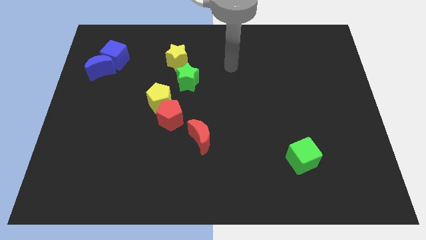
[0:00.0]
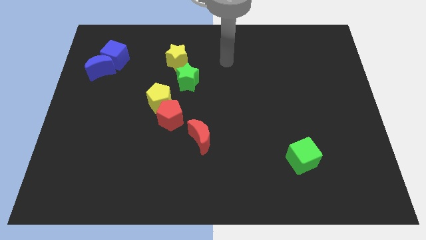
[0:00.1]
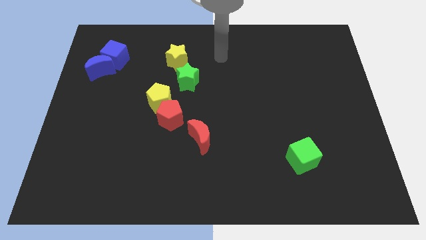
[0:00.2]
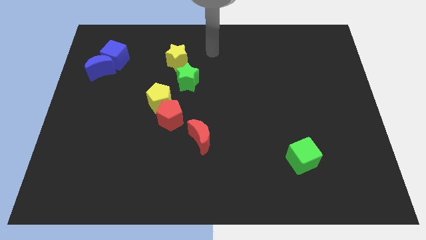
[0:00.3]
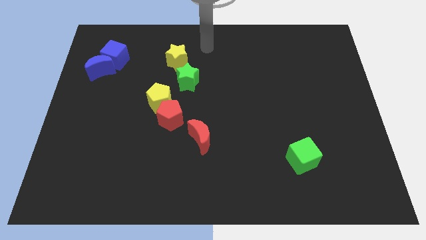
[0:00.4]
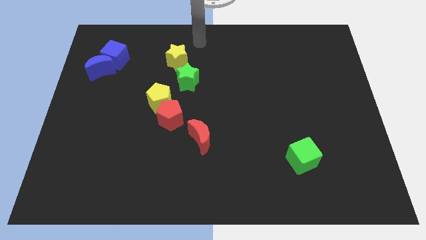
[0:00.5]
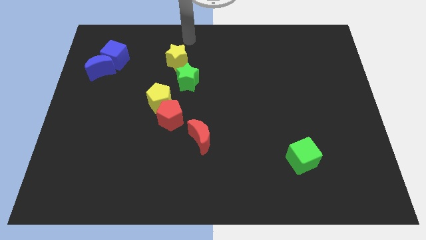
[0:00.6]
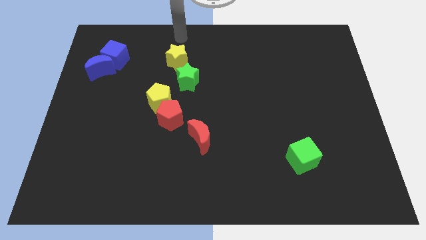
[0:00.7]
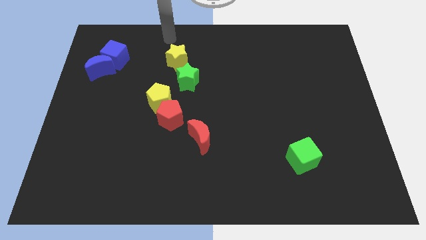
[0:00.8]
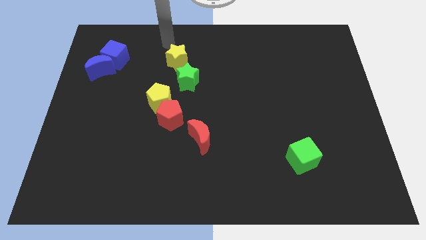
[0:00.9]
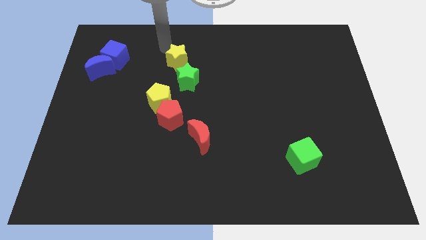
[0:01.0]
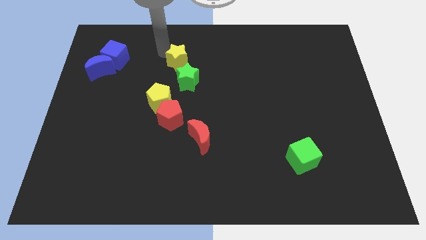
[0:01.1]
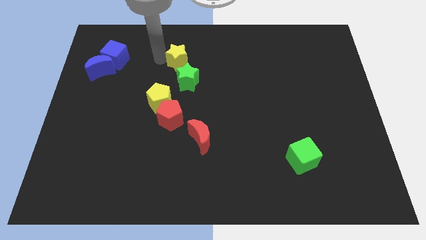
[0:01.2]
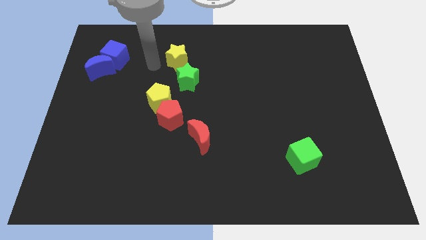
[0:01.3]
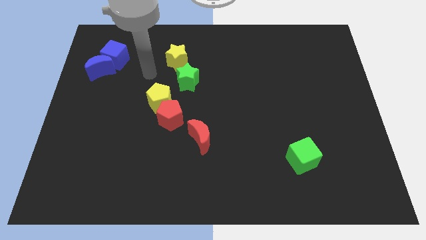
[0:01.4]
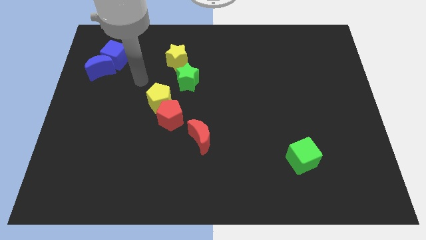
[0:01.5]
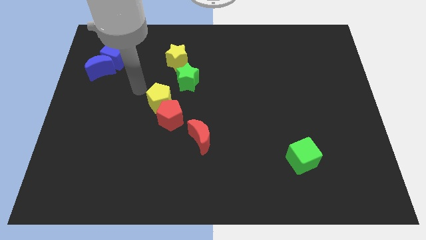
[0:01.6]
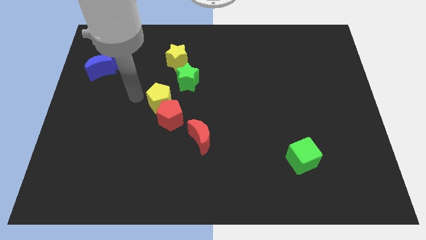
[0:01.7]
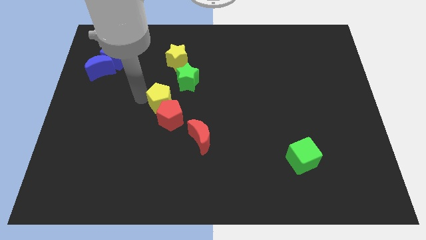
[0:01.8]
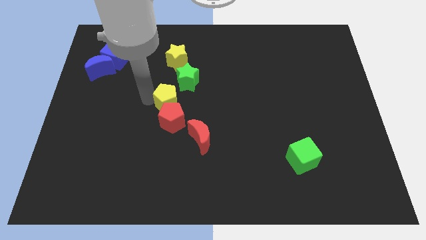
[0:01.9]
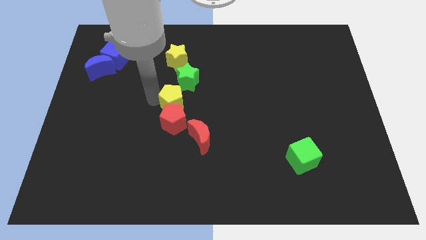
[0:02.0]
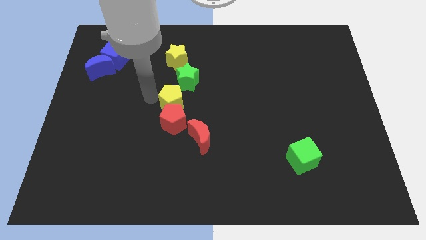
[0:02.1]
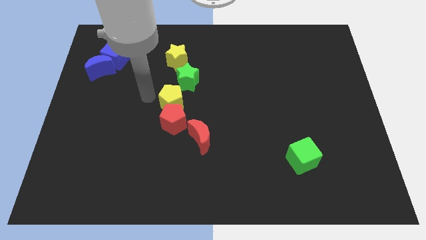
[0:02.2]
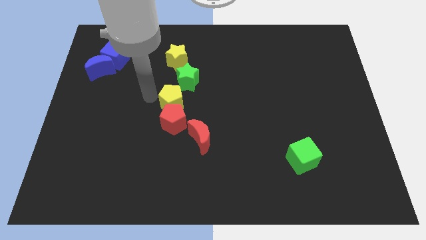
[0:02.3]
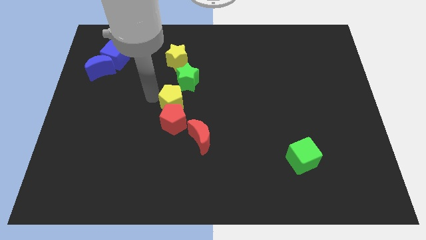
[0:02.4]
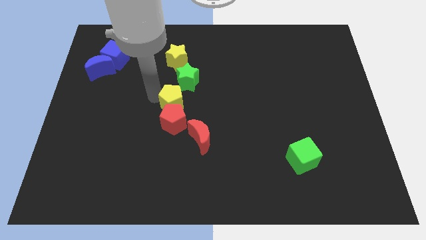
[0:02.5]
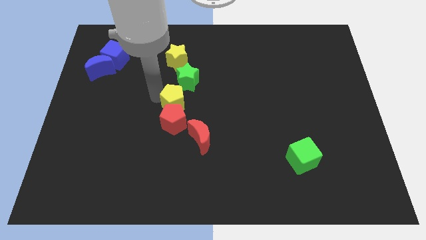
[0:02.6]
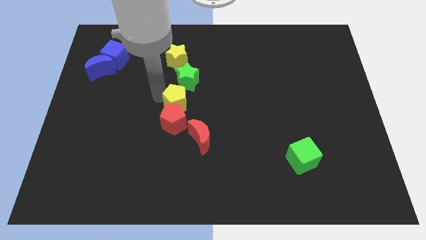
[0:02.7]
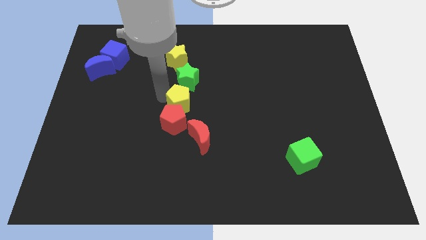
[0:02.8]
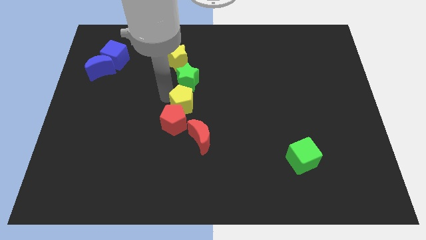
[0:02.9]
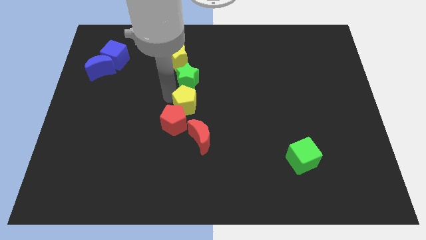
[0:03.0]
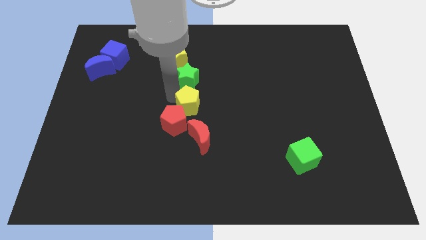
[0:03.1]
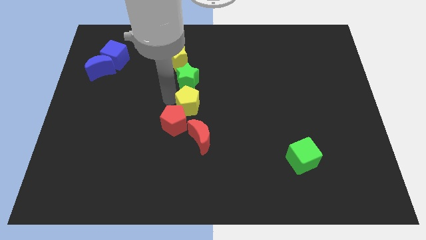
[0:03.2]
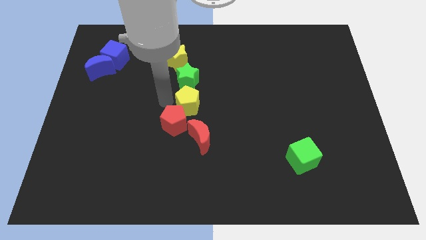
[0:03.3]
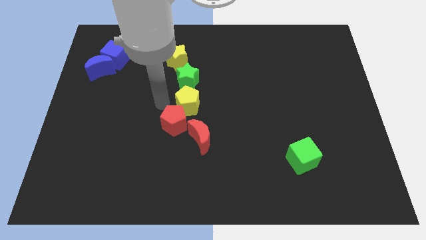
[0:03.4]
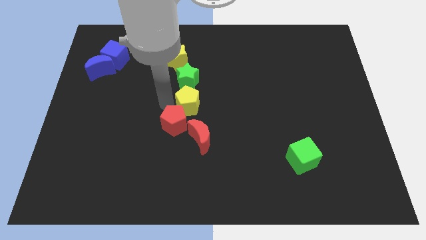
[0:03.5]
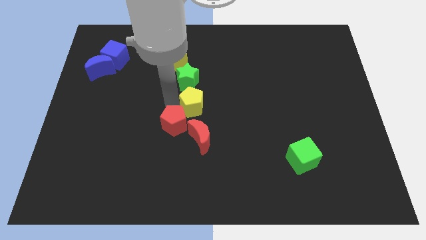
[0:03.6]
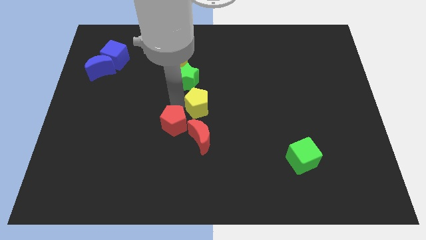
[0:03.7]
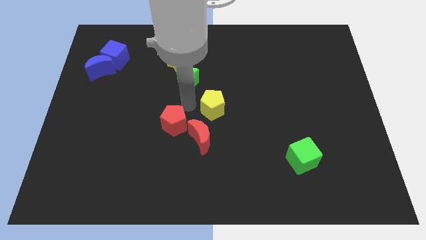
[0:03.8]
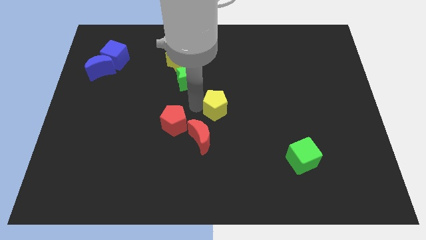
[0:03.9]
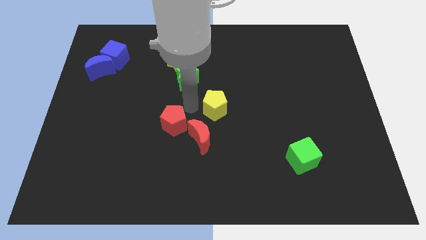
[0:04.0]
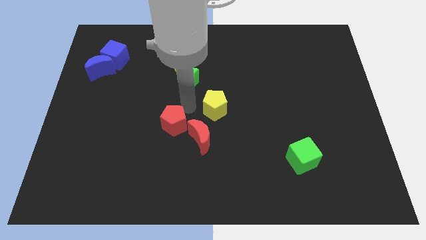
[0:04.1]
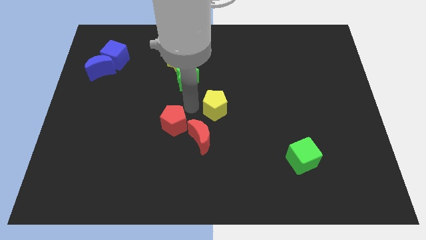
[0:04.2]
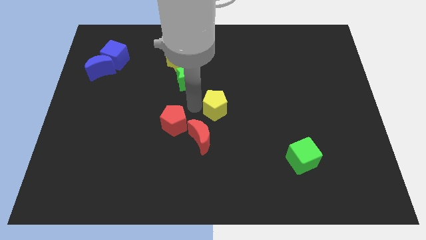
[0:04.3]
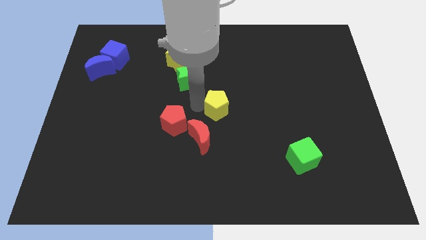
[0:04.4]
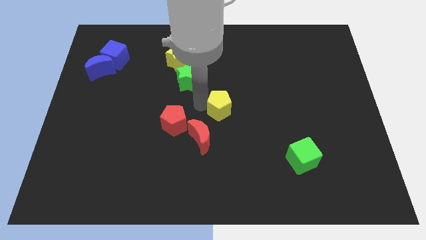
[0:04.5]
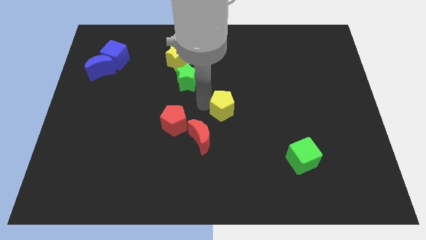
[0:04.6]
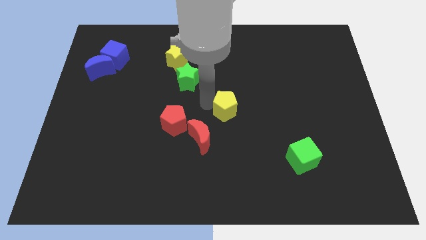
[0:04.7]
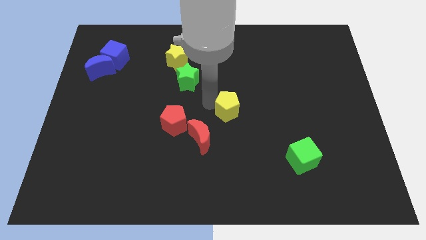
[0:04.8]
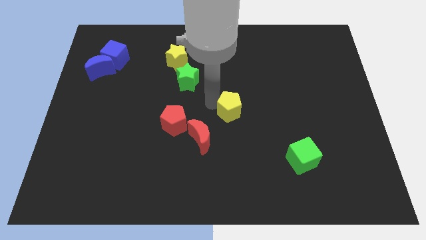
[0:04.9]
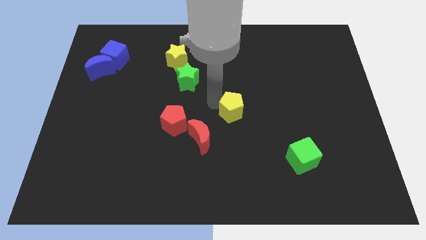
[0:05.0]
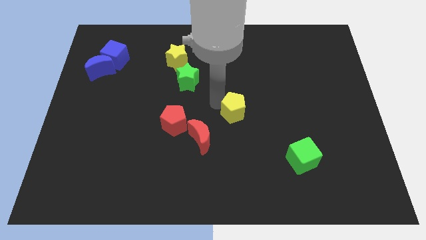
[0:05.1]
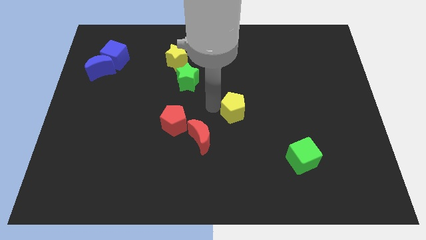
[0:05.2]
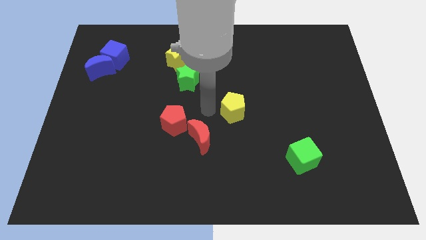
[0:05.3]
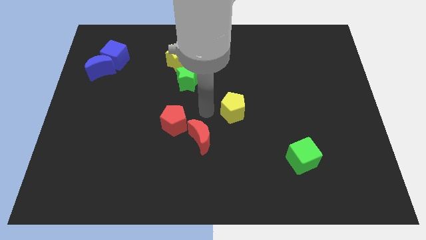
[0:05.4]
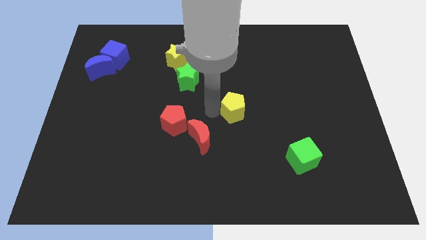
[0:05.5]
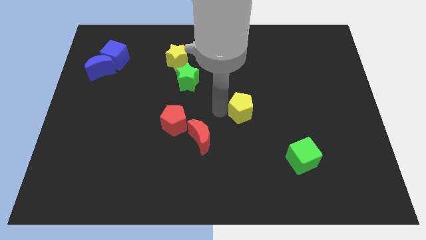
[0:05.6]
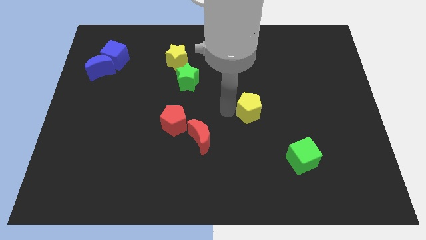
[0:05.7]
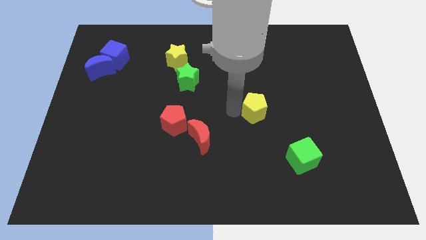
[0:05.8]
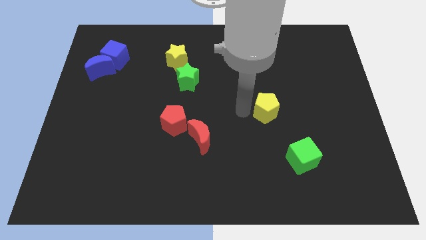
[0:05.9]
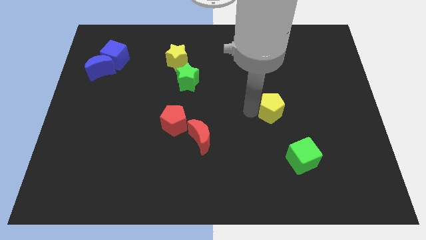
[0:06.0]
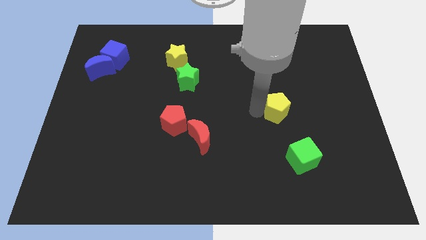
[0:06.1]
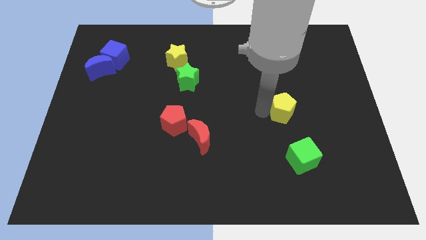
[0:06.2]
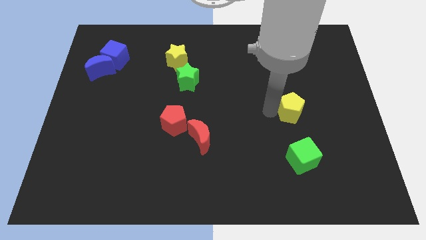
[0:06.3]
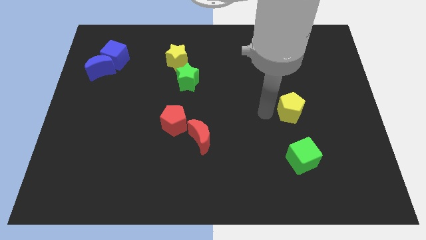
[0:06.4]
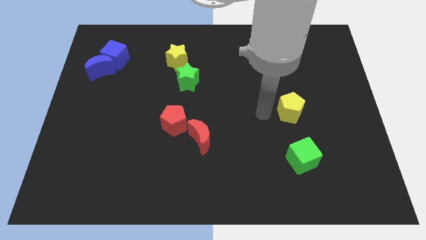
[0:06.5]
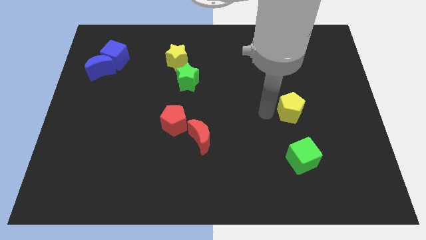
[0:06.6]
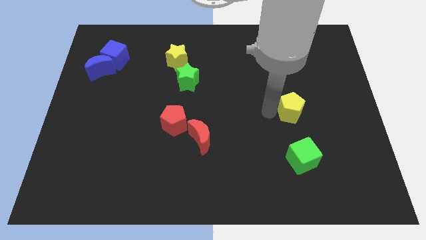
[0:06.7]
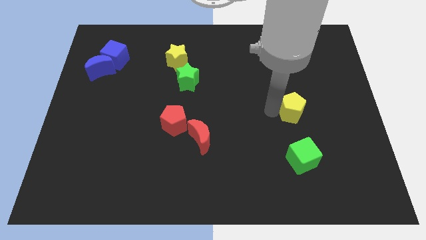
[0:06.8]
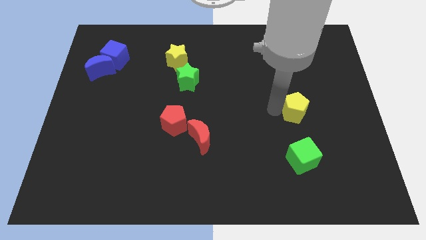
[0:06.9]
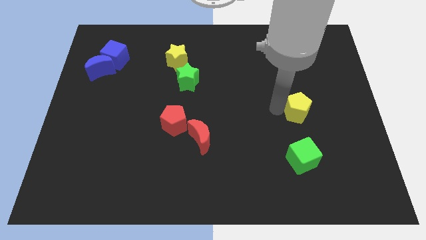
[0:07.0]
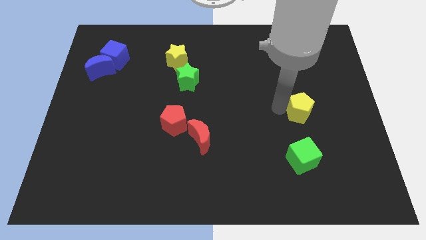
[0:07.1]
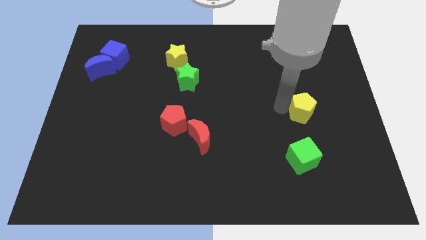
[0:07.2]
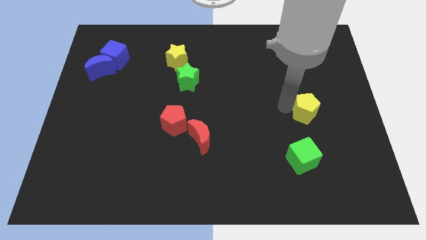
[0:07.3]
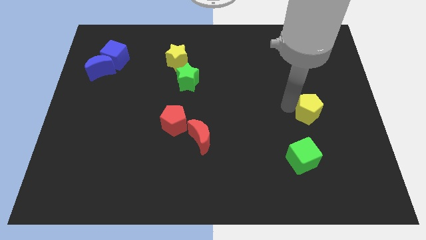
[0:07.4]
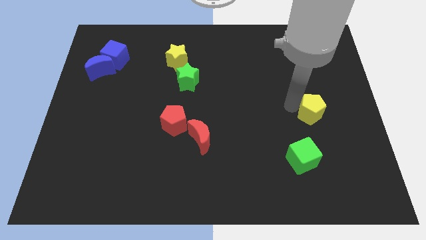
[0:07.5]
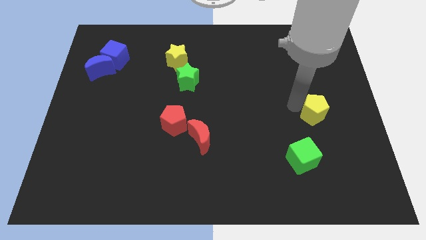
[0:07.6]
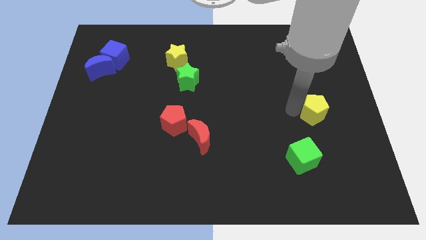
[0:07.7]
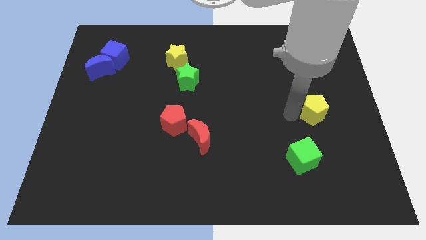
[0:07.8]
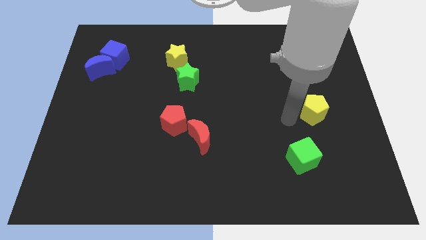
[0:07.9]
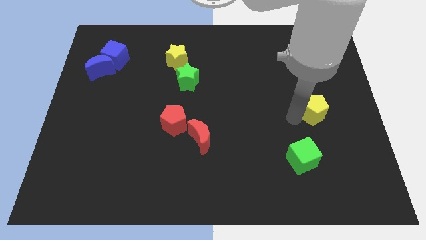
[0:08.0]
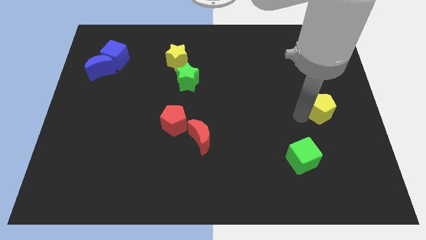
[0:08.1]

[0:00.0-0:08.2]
push the yellow pentagon to the right side of the board

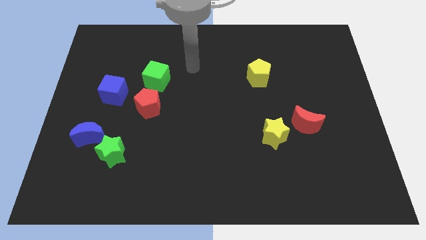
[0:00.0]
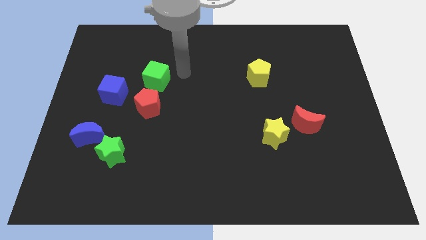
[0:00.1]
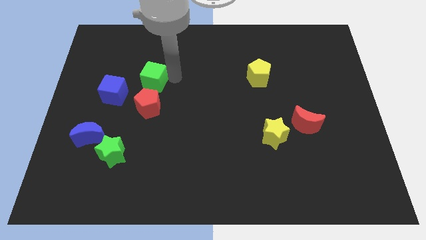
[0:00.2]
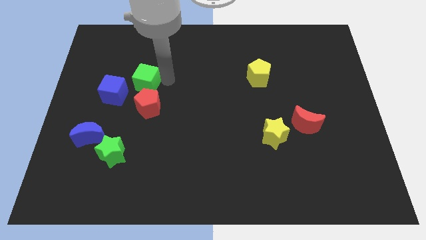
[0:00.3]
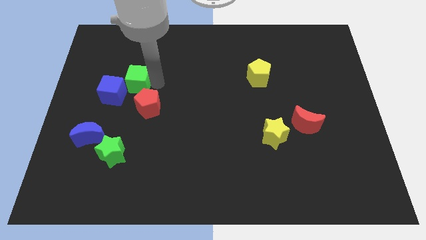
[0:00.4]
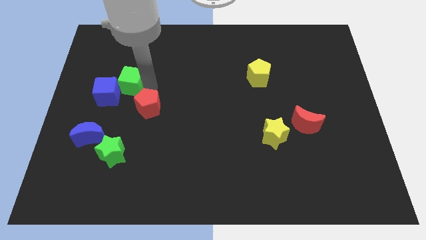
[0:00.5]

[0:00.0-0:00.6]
slide the blue cube to the left side
